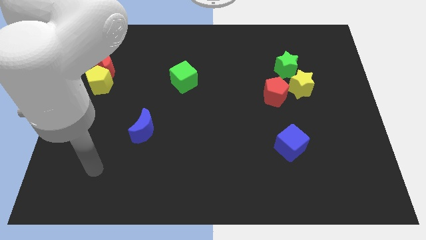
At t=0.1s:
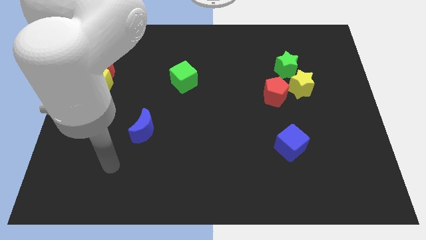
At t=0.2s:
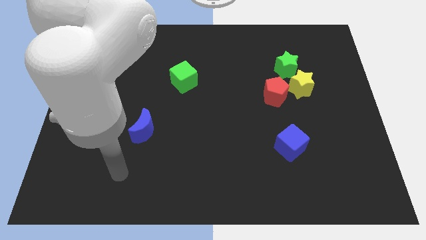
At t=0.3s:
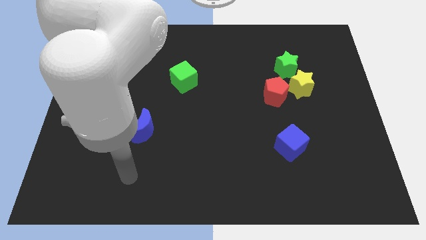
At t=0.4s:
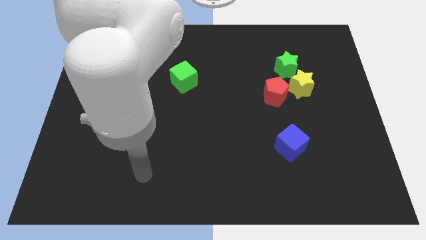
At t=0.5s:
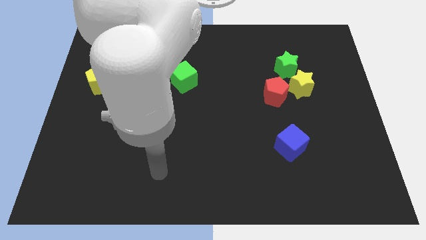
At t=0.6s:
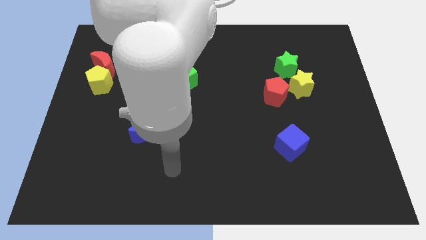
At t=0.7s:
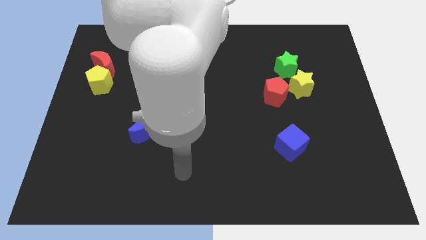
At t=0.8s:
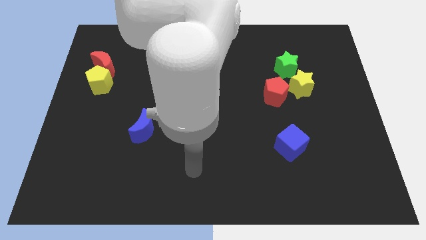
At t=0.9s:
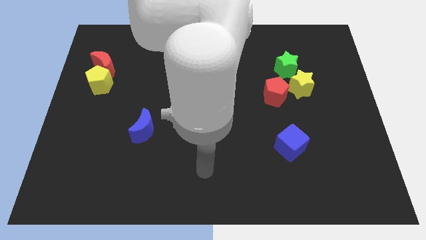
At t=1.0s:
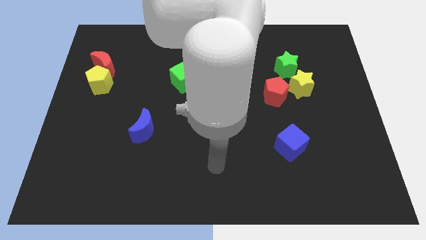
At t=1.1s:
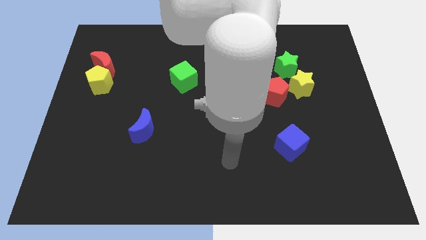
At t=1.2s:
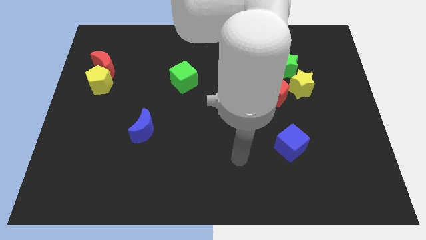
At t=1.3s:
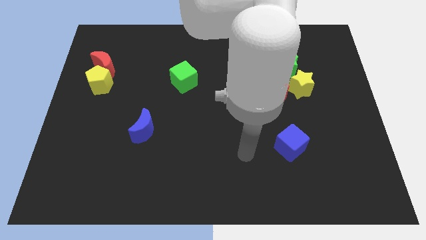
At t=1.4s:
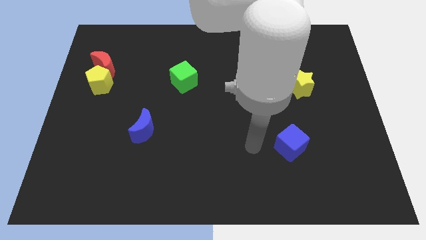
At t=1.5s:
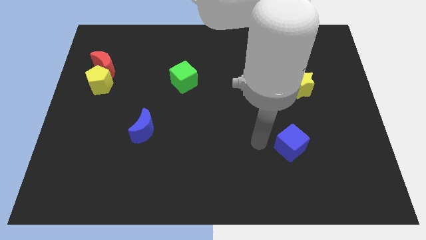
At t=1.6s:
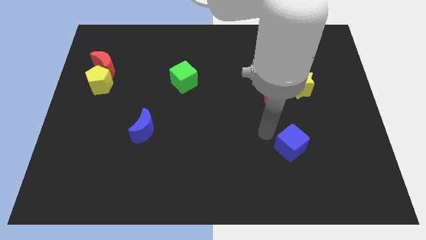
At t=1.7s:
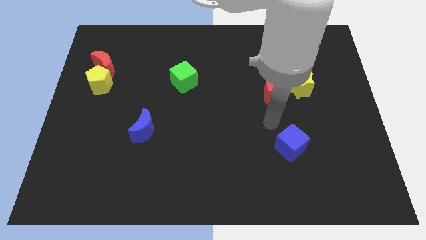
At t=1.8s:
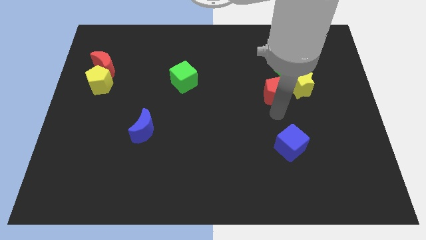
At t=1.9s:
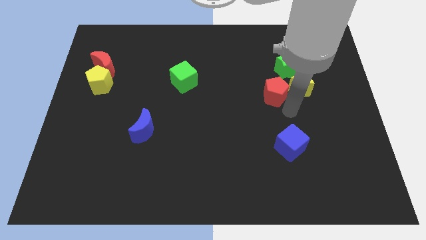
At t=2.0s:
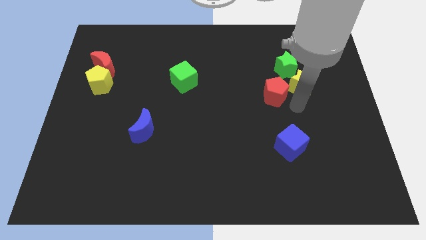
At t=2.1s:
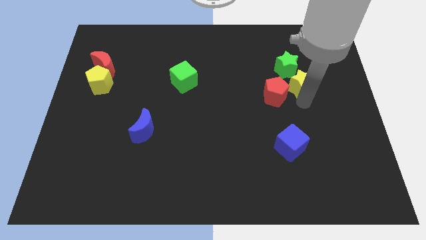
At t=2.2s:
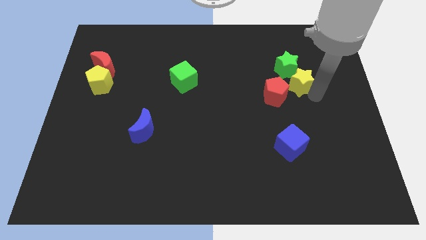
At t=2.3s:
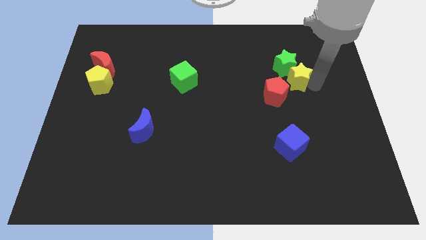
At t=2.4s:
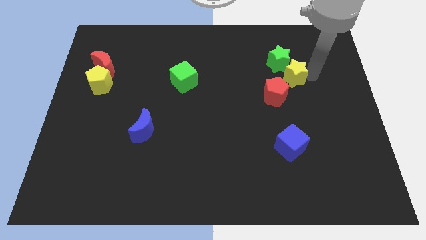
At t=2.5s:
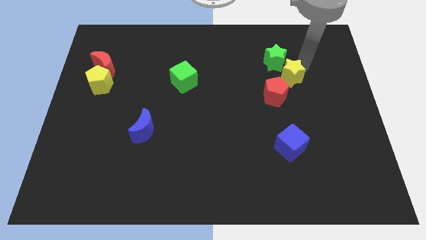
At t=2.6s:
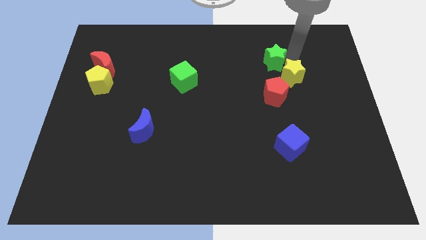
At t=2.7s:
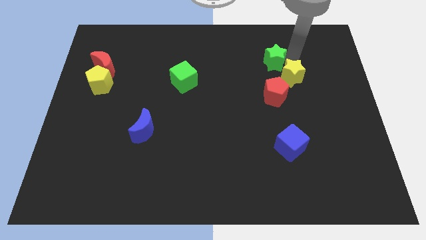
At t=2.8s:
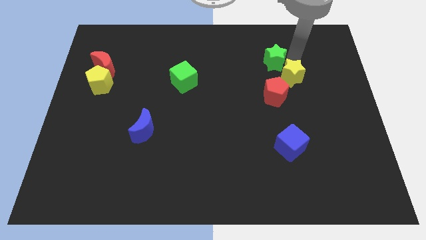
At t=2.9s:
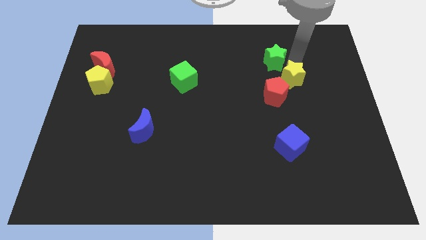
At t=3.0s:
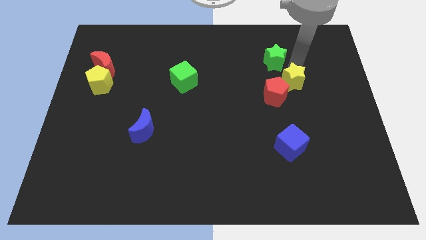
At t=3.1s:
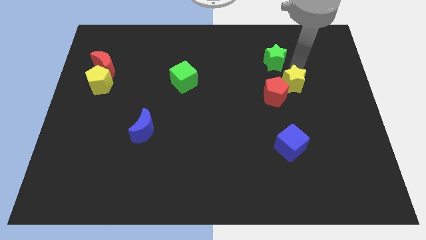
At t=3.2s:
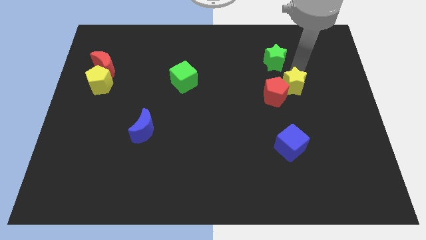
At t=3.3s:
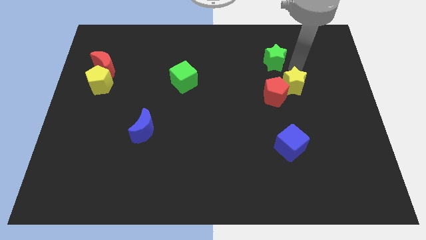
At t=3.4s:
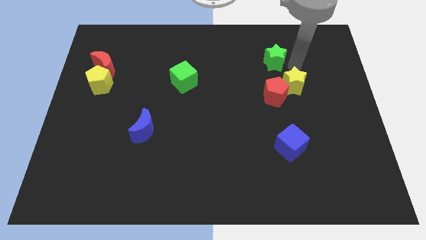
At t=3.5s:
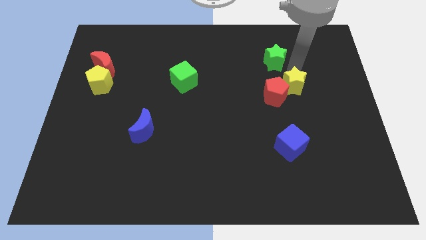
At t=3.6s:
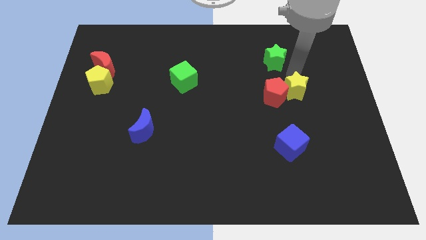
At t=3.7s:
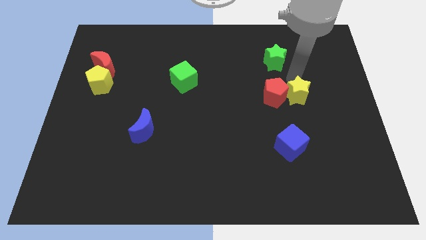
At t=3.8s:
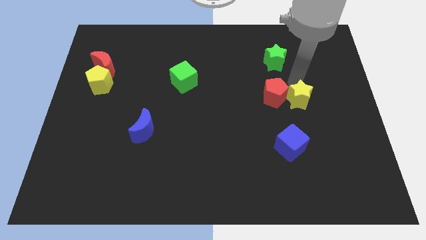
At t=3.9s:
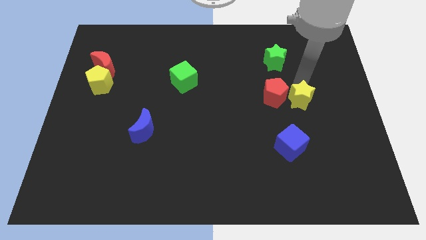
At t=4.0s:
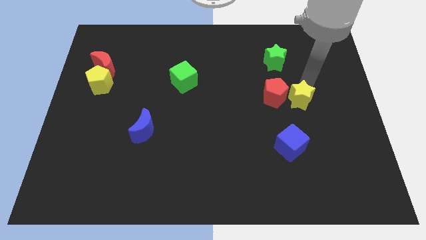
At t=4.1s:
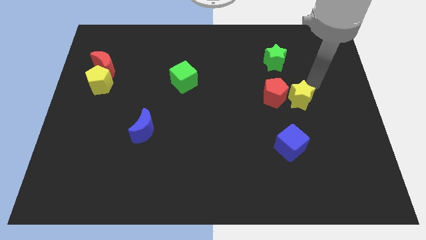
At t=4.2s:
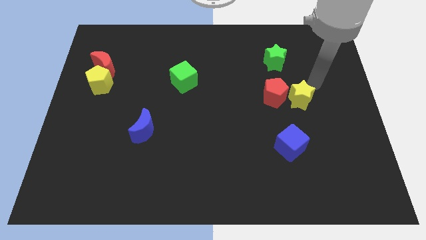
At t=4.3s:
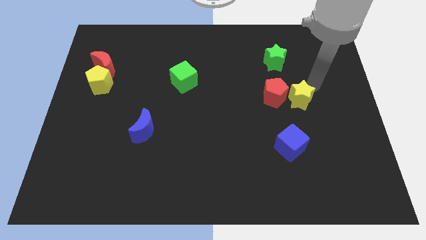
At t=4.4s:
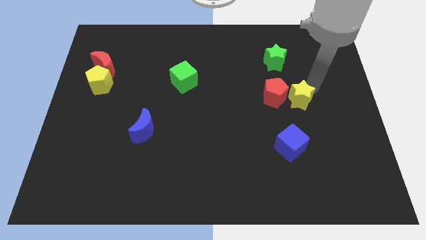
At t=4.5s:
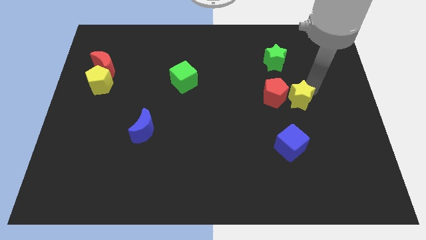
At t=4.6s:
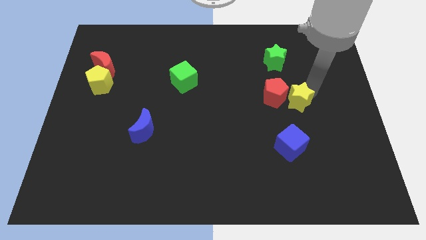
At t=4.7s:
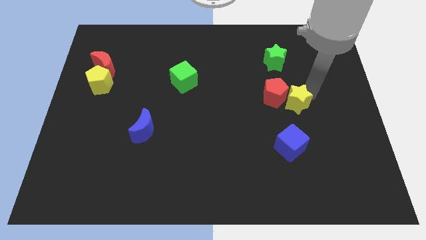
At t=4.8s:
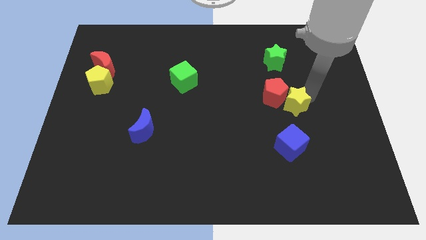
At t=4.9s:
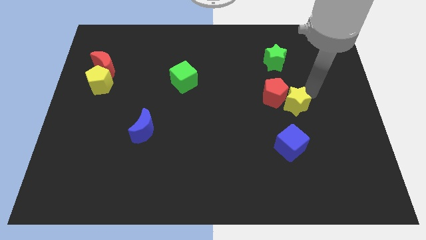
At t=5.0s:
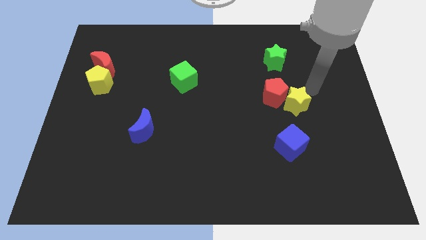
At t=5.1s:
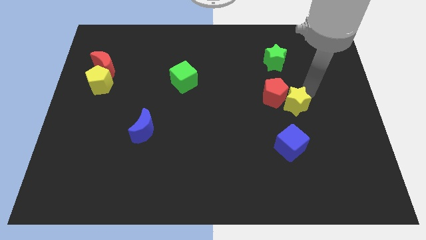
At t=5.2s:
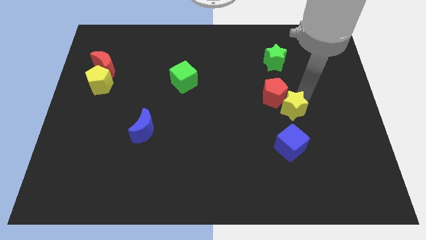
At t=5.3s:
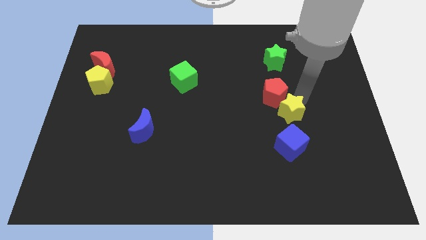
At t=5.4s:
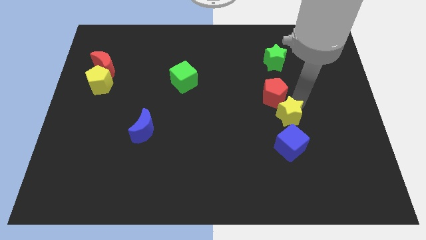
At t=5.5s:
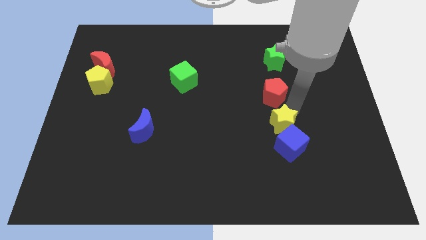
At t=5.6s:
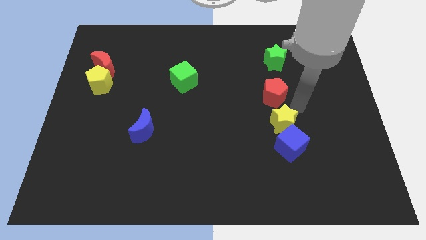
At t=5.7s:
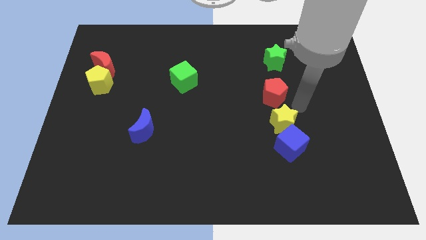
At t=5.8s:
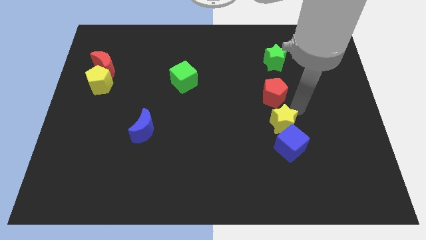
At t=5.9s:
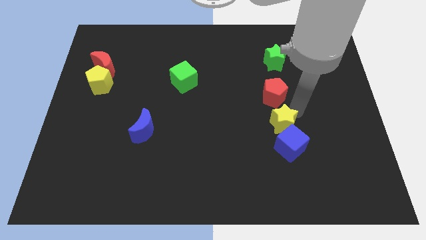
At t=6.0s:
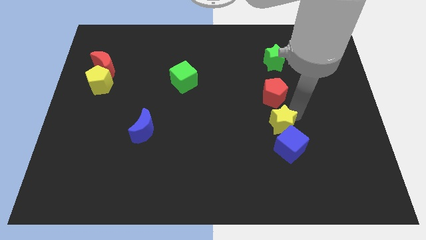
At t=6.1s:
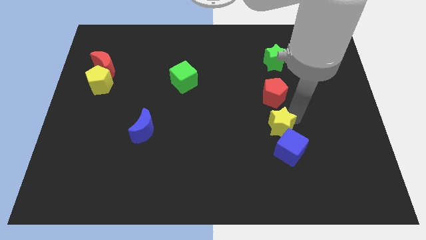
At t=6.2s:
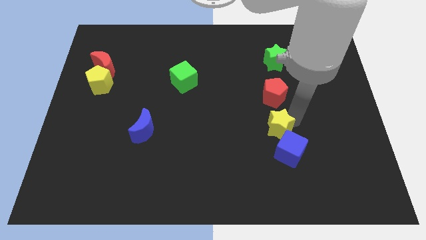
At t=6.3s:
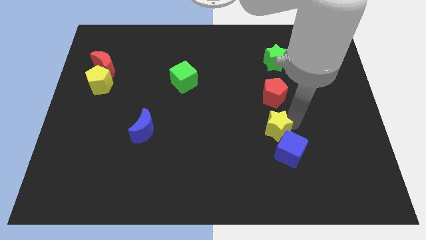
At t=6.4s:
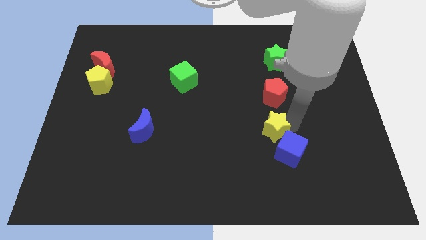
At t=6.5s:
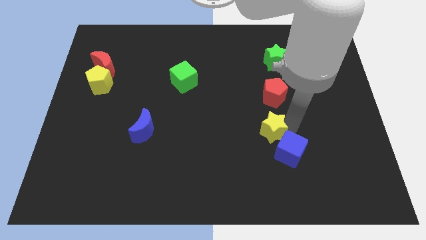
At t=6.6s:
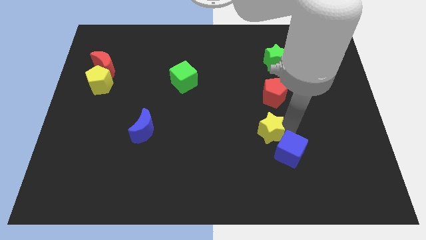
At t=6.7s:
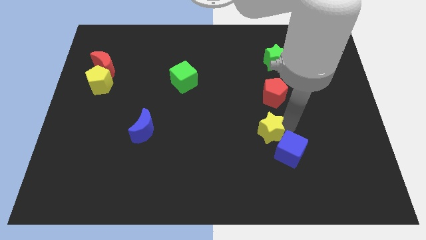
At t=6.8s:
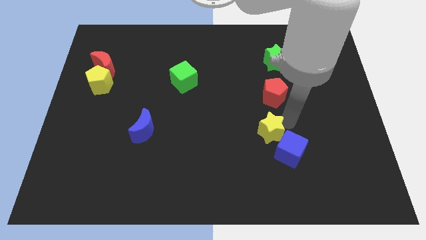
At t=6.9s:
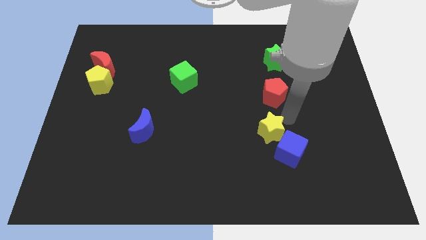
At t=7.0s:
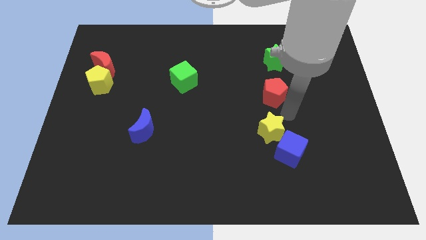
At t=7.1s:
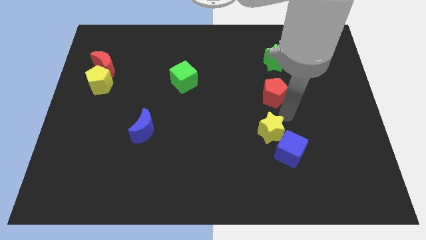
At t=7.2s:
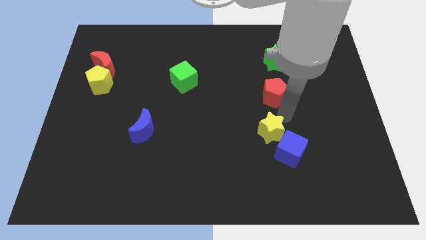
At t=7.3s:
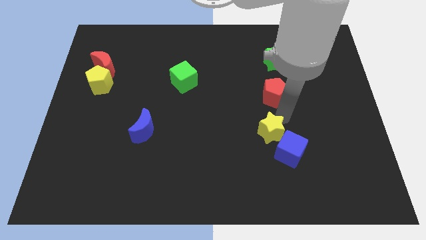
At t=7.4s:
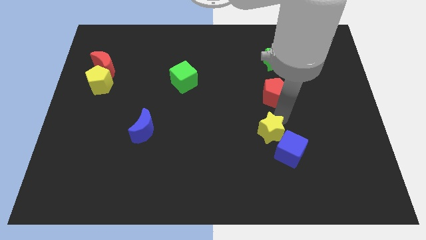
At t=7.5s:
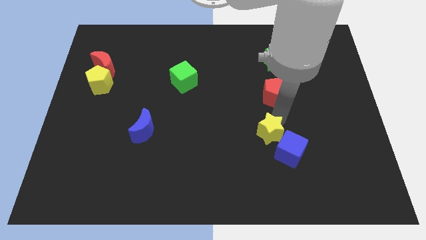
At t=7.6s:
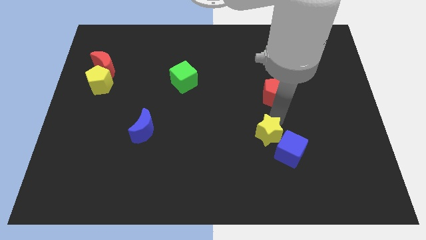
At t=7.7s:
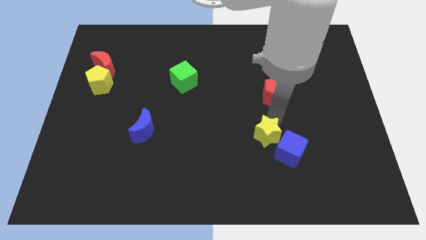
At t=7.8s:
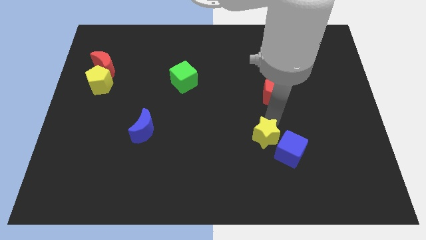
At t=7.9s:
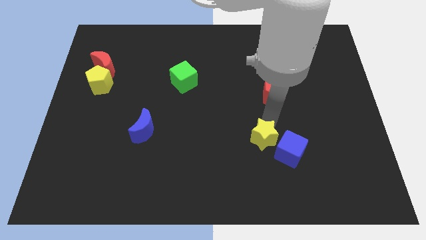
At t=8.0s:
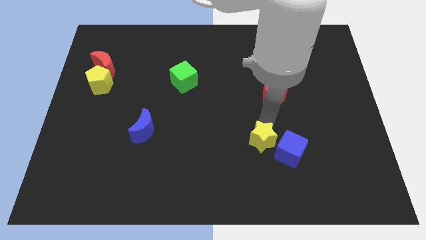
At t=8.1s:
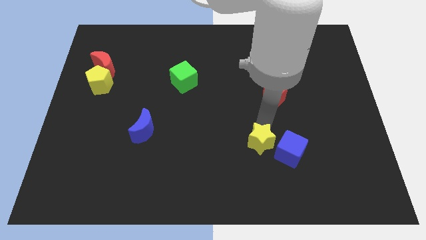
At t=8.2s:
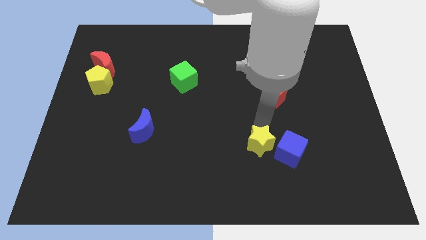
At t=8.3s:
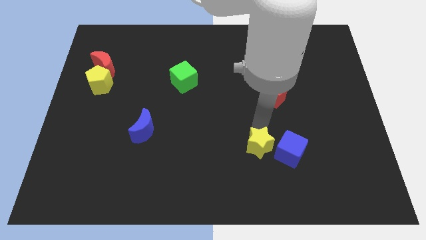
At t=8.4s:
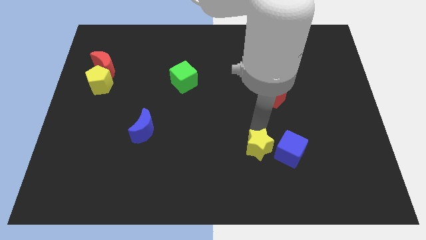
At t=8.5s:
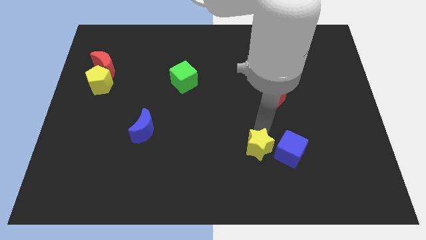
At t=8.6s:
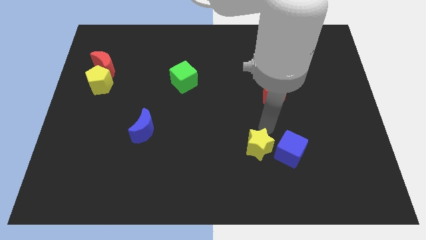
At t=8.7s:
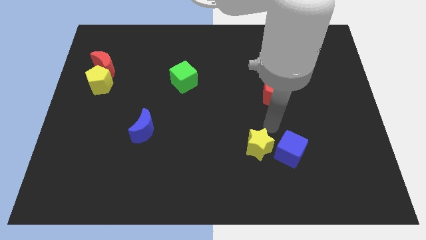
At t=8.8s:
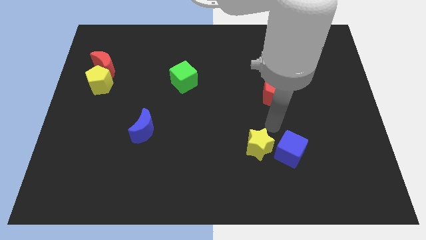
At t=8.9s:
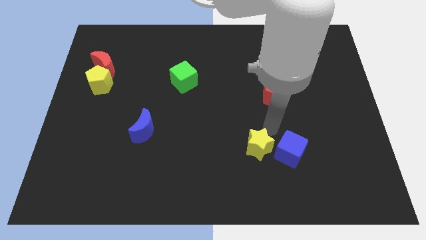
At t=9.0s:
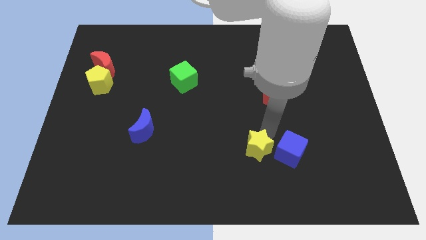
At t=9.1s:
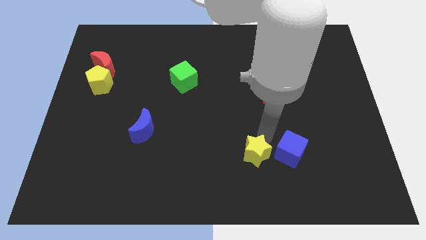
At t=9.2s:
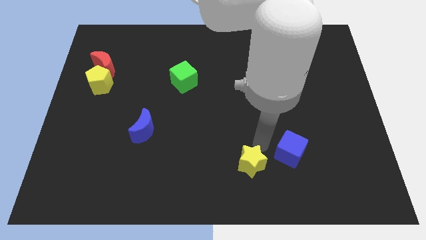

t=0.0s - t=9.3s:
move the yellow star to the bottom
